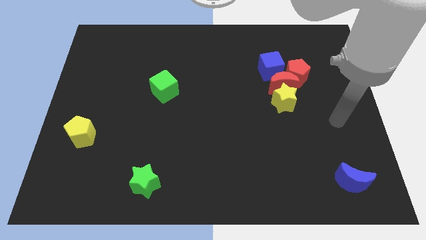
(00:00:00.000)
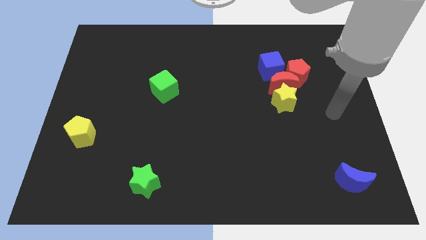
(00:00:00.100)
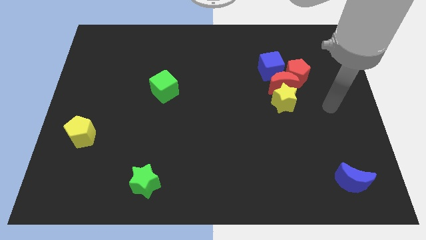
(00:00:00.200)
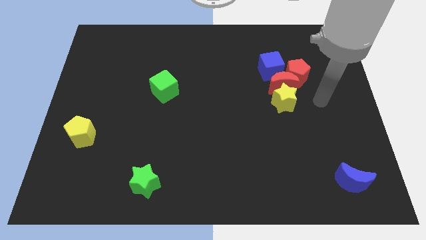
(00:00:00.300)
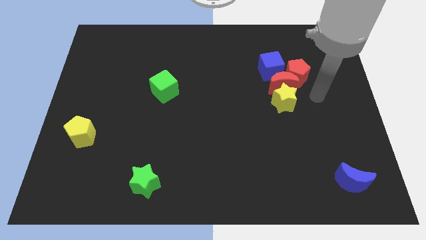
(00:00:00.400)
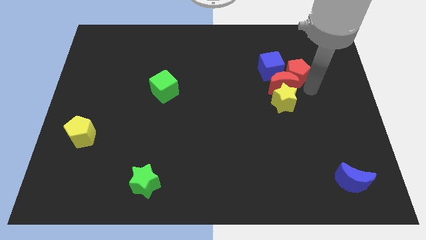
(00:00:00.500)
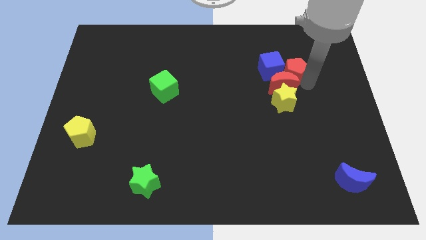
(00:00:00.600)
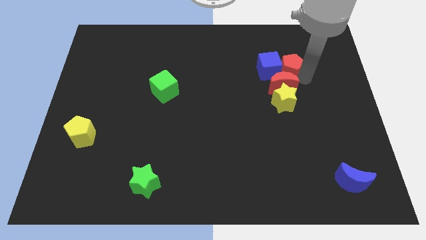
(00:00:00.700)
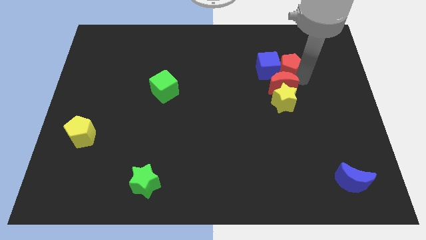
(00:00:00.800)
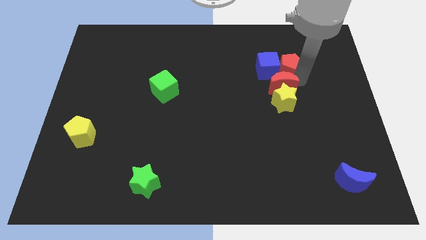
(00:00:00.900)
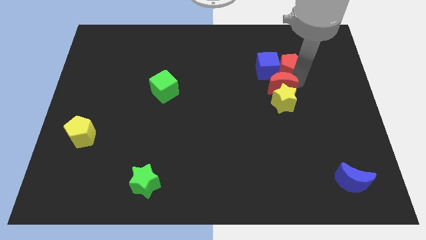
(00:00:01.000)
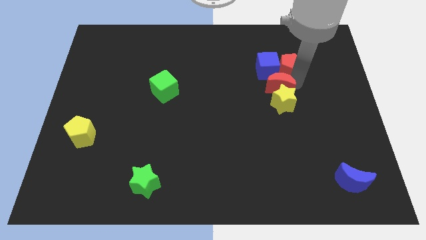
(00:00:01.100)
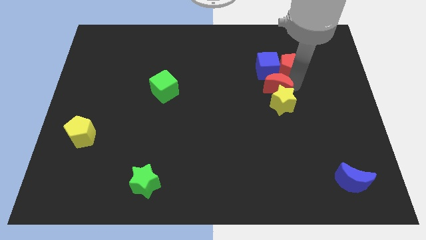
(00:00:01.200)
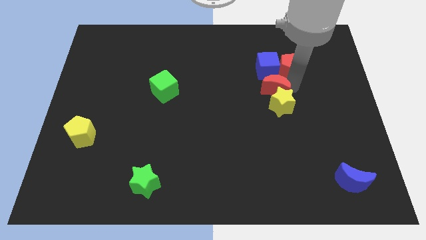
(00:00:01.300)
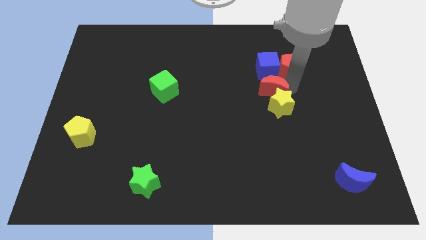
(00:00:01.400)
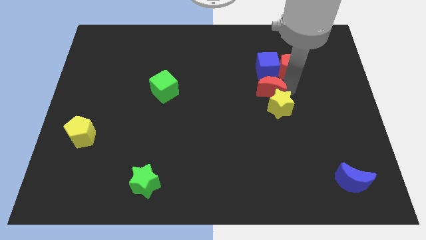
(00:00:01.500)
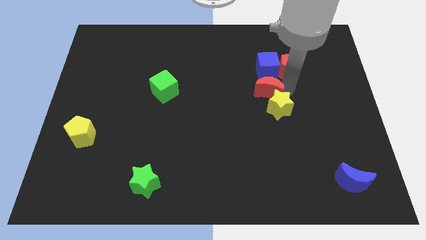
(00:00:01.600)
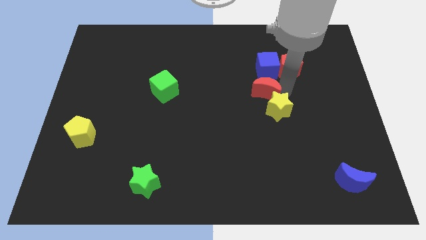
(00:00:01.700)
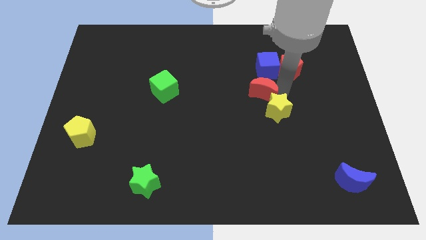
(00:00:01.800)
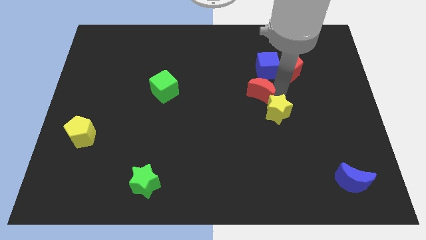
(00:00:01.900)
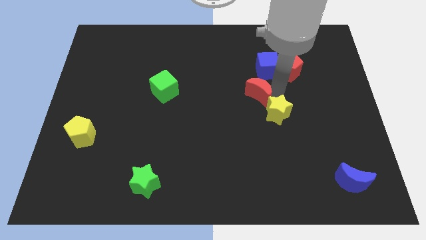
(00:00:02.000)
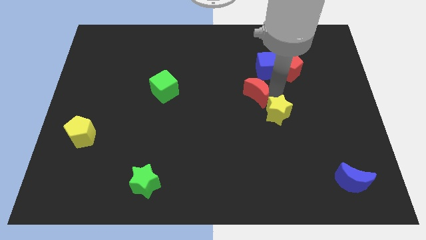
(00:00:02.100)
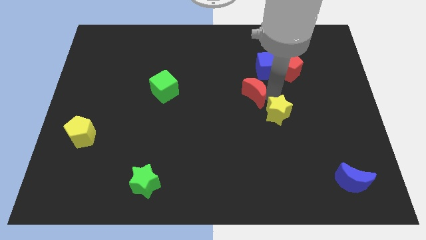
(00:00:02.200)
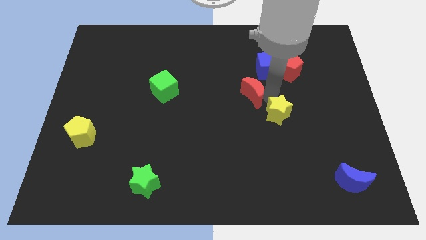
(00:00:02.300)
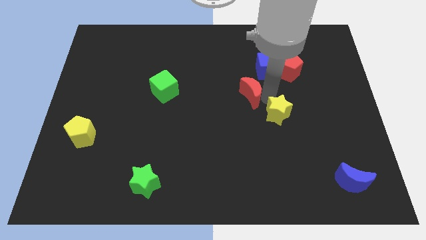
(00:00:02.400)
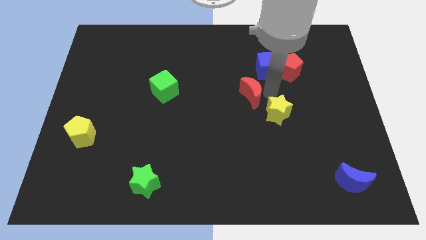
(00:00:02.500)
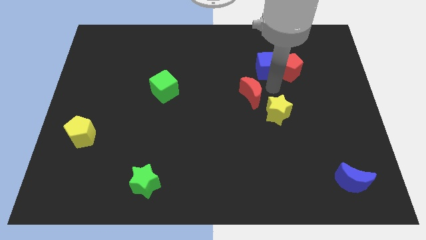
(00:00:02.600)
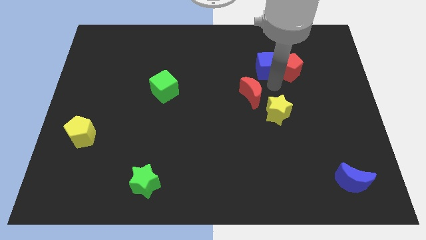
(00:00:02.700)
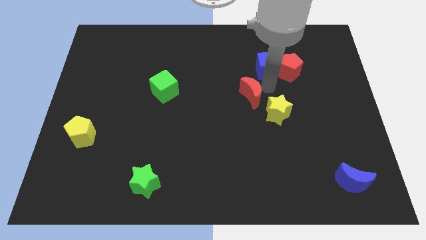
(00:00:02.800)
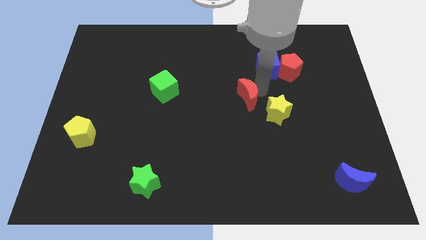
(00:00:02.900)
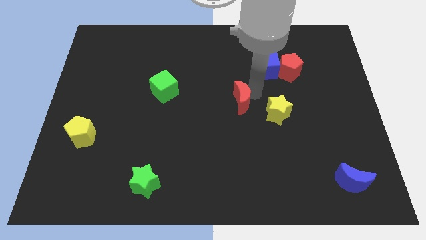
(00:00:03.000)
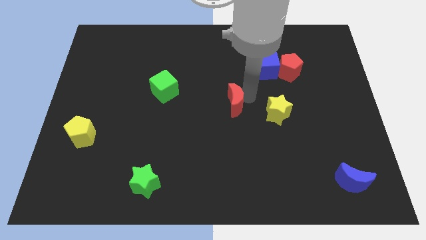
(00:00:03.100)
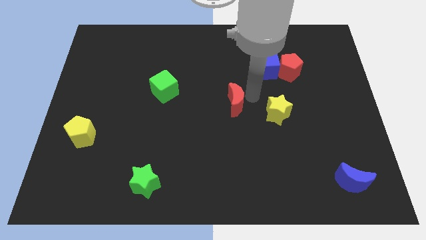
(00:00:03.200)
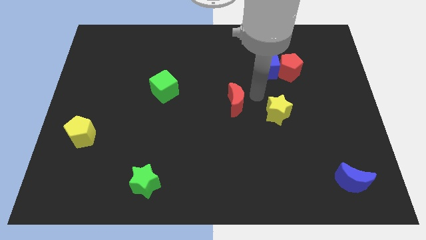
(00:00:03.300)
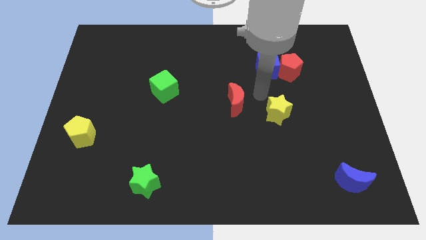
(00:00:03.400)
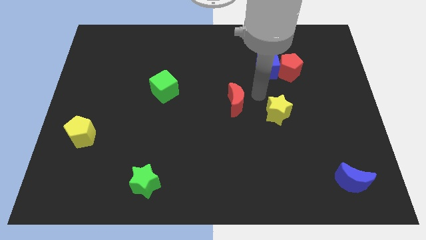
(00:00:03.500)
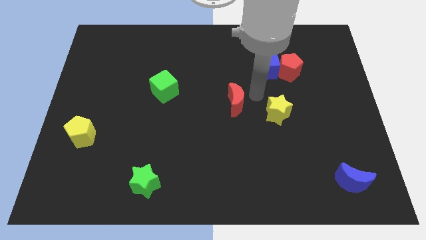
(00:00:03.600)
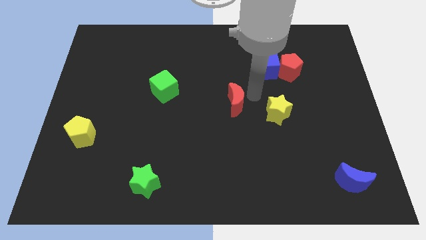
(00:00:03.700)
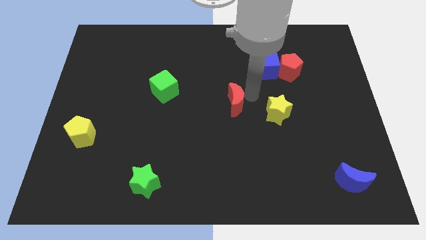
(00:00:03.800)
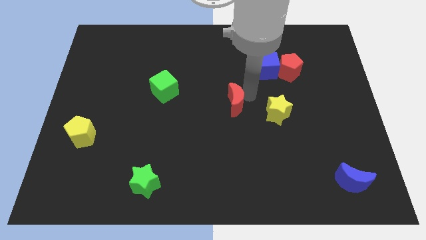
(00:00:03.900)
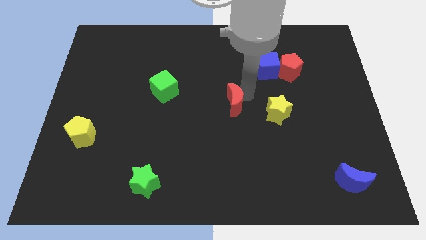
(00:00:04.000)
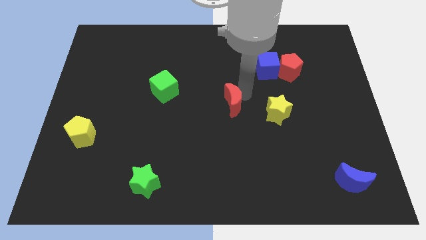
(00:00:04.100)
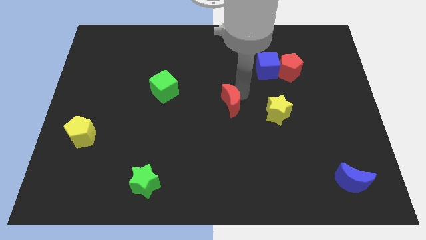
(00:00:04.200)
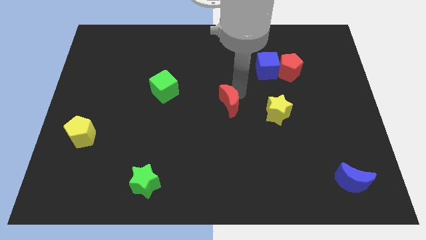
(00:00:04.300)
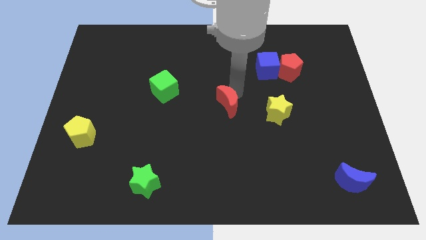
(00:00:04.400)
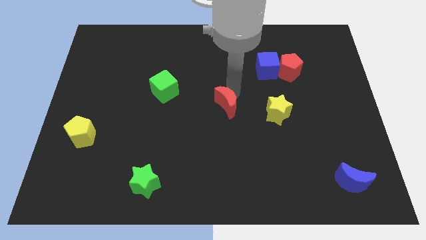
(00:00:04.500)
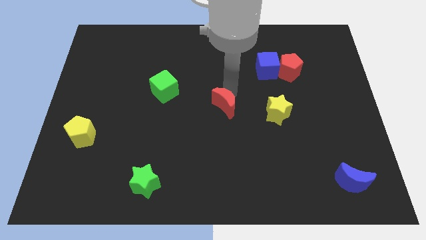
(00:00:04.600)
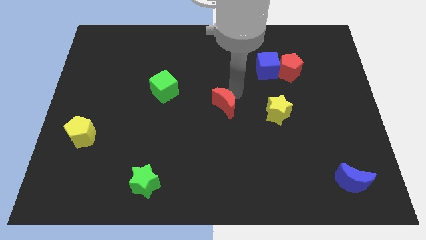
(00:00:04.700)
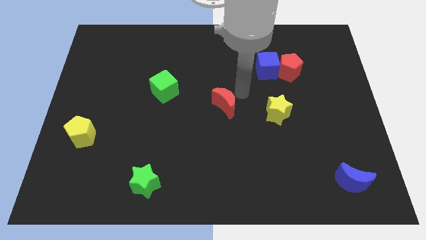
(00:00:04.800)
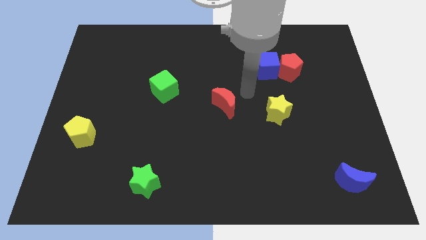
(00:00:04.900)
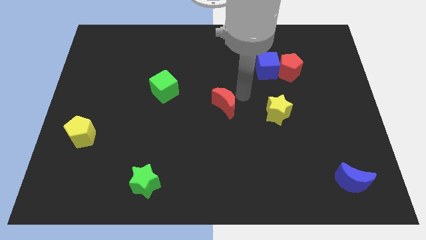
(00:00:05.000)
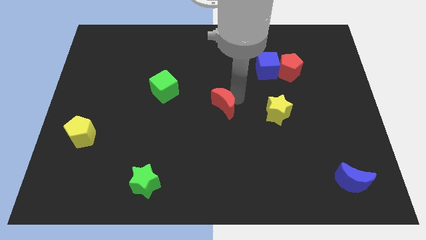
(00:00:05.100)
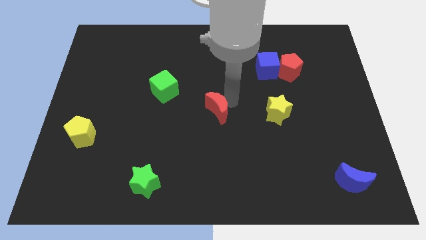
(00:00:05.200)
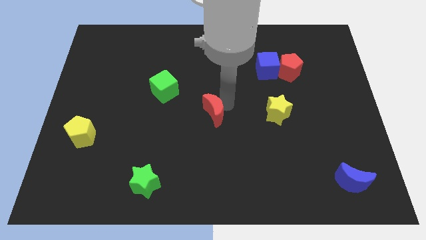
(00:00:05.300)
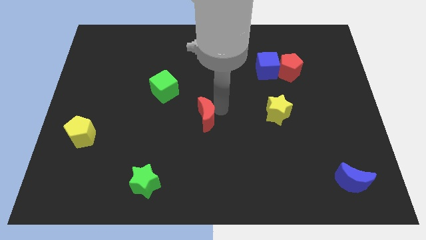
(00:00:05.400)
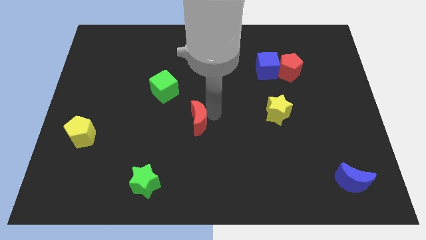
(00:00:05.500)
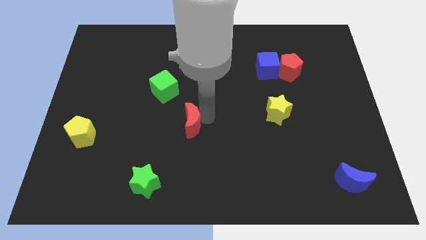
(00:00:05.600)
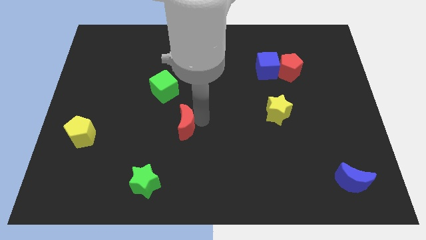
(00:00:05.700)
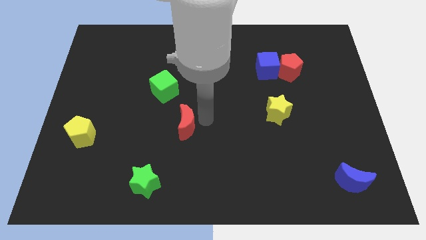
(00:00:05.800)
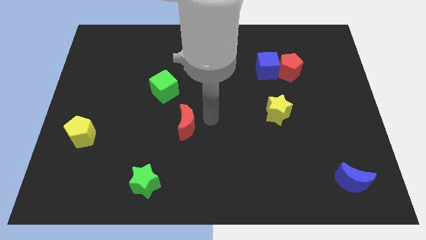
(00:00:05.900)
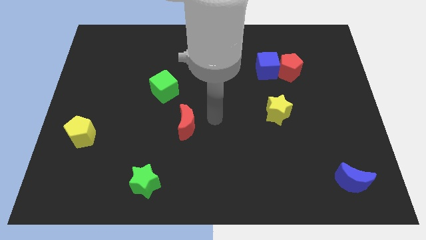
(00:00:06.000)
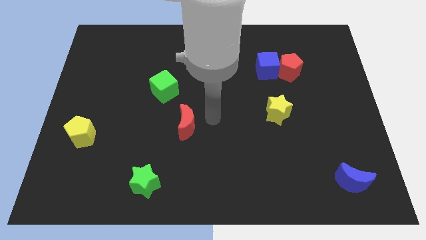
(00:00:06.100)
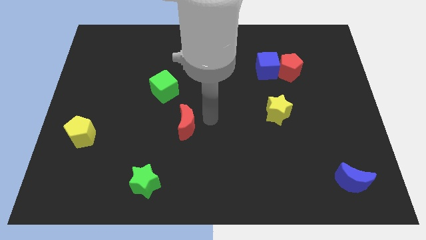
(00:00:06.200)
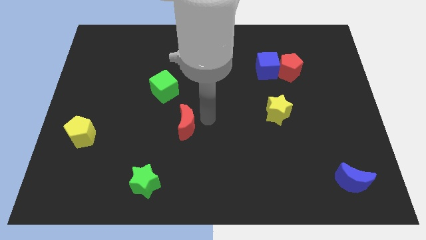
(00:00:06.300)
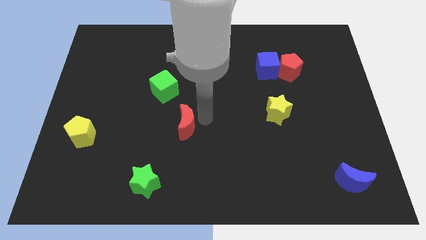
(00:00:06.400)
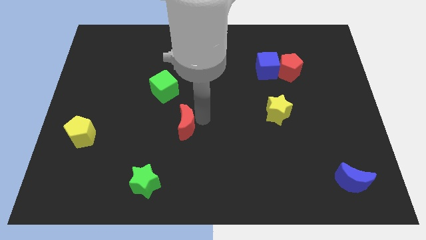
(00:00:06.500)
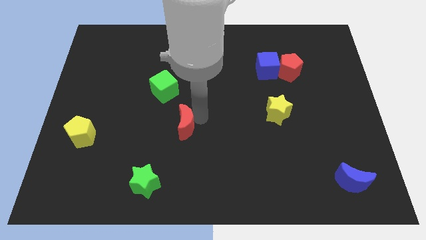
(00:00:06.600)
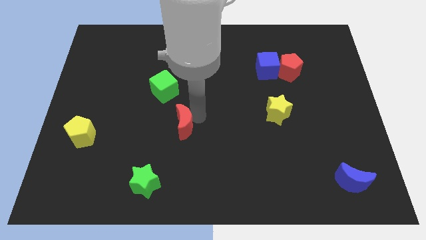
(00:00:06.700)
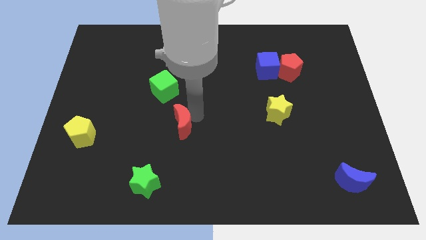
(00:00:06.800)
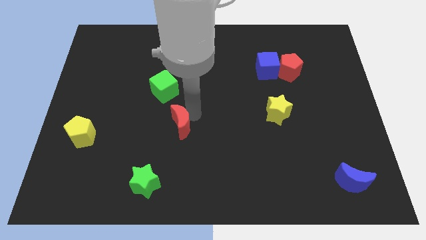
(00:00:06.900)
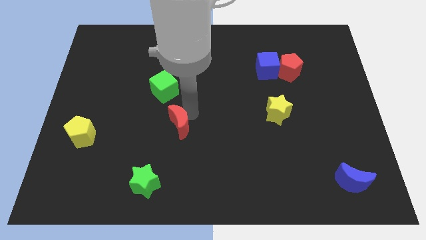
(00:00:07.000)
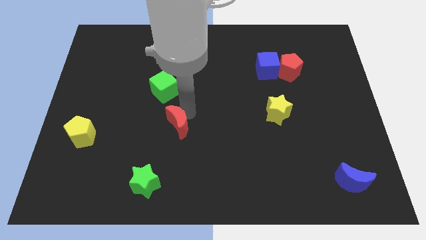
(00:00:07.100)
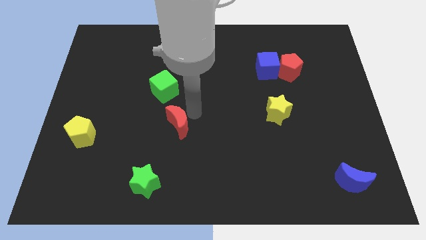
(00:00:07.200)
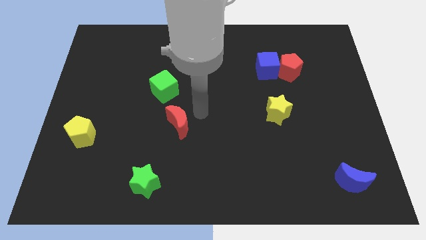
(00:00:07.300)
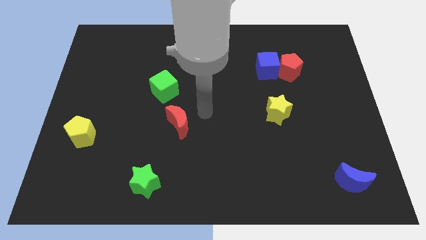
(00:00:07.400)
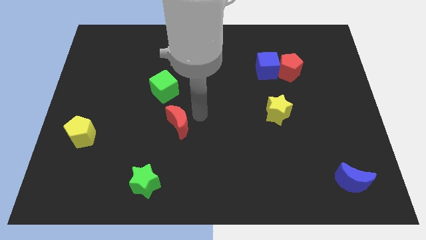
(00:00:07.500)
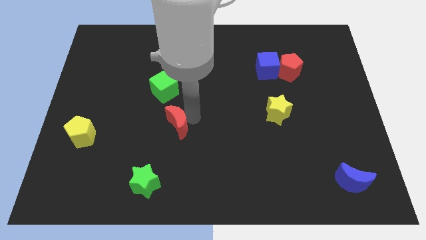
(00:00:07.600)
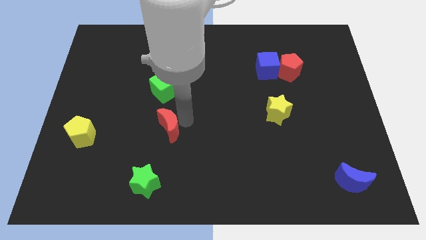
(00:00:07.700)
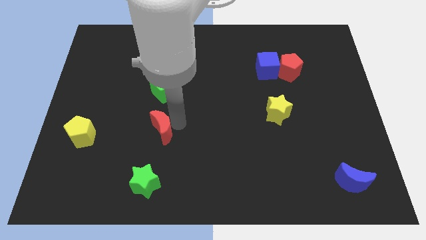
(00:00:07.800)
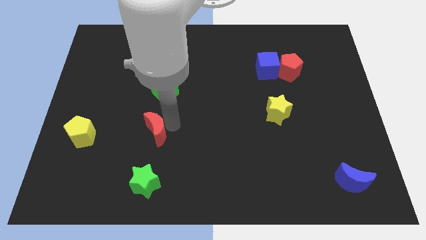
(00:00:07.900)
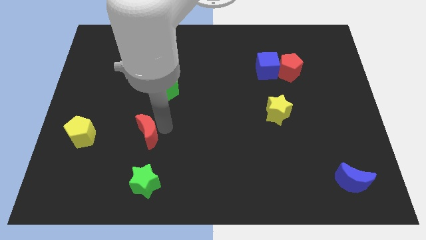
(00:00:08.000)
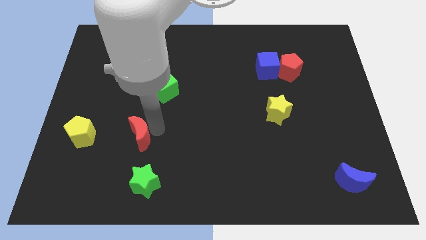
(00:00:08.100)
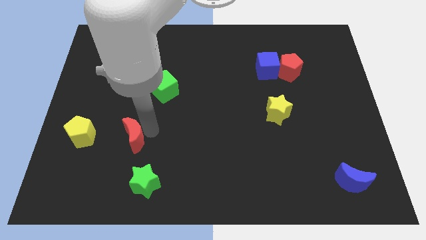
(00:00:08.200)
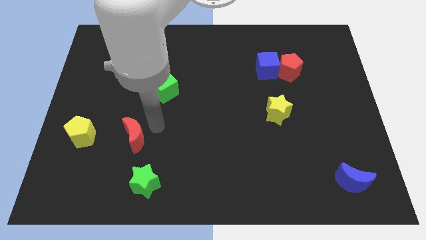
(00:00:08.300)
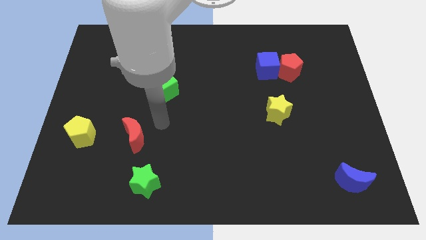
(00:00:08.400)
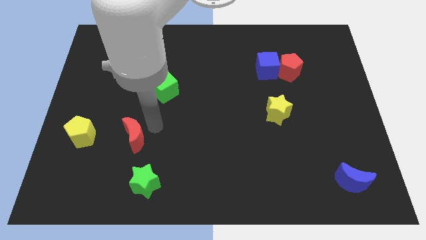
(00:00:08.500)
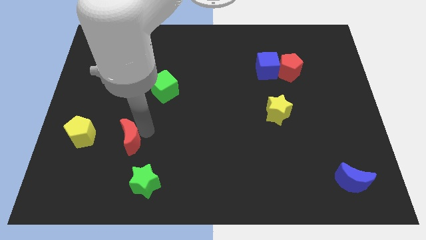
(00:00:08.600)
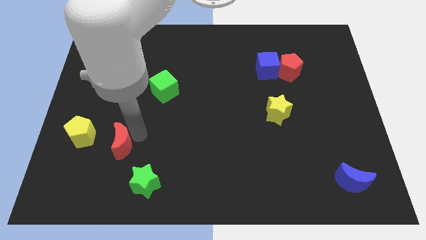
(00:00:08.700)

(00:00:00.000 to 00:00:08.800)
move the red moon diagonally down and to the right of the yellow pentagon
